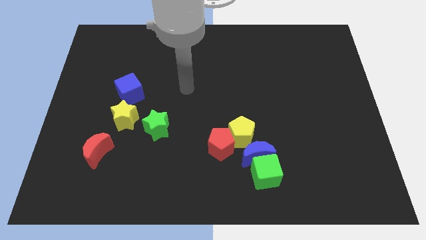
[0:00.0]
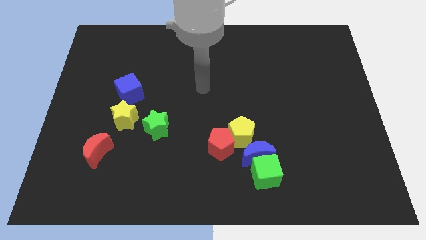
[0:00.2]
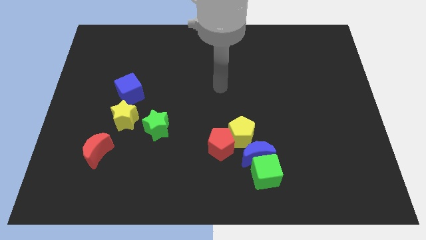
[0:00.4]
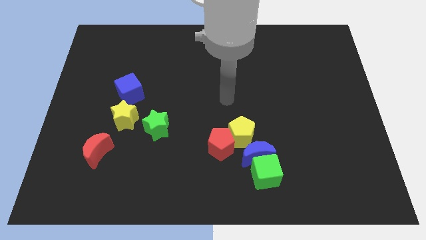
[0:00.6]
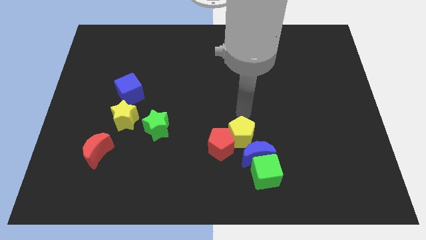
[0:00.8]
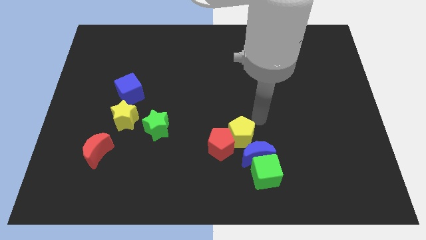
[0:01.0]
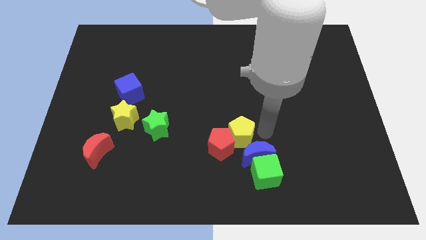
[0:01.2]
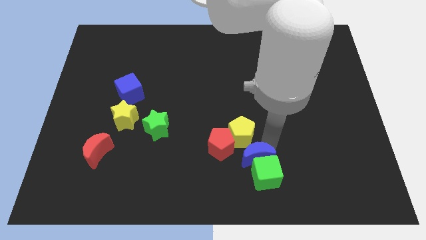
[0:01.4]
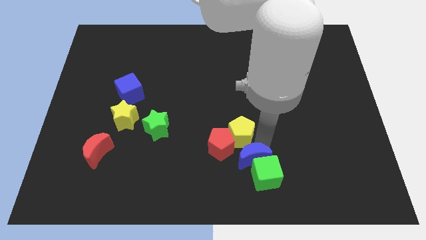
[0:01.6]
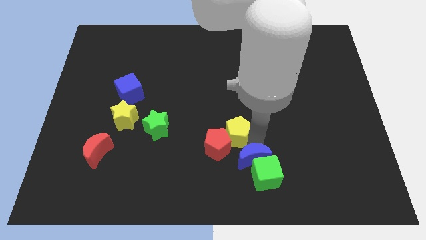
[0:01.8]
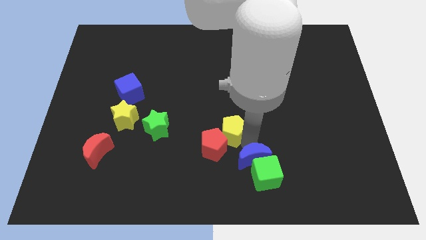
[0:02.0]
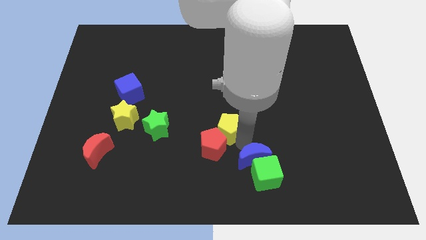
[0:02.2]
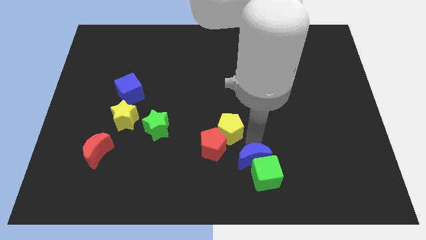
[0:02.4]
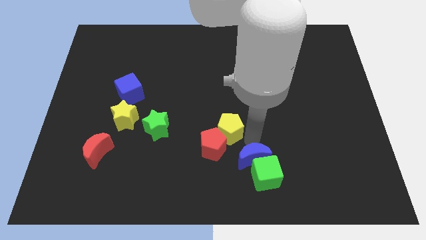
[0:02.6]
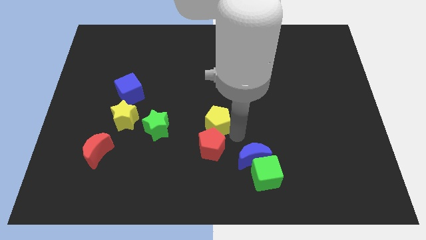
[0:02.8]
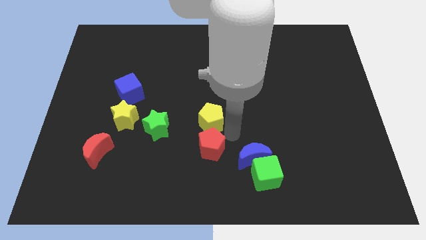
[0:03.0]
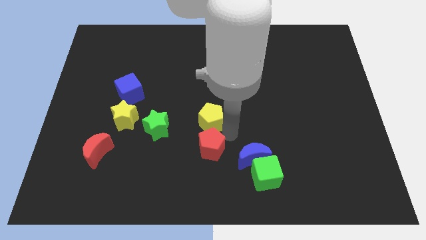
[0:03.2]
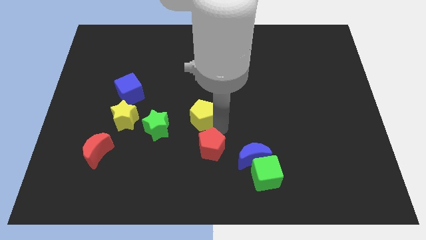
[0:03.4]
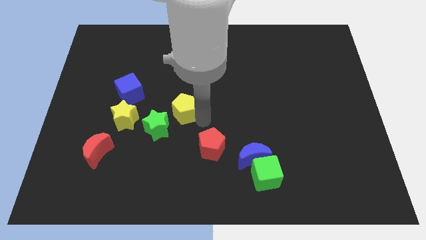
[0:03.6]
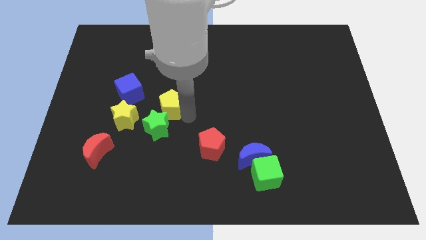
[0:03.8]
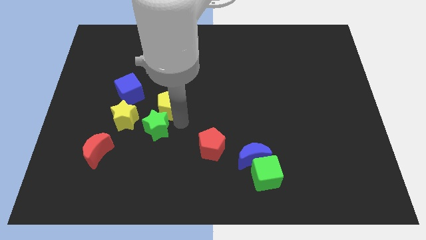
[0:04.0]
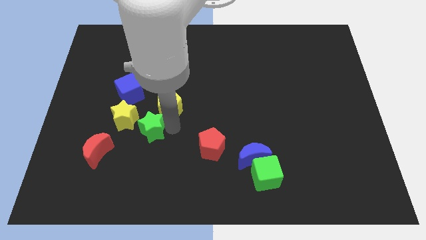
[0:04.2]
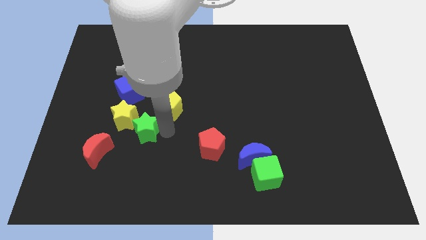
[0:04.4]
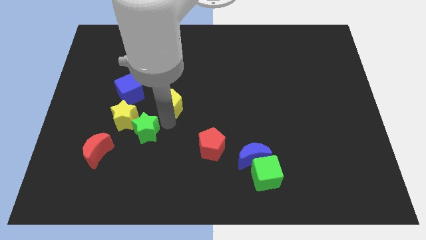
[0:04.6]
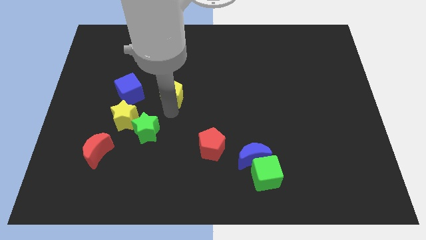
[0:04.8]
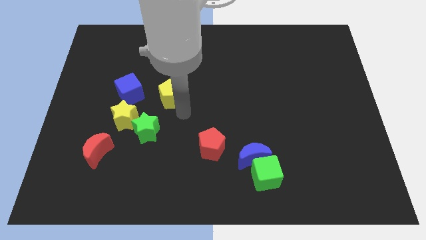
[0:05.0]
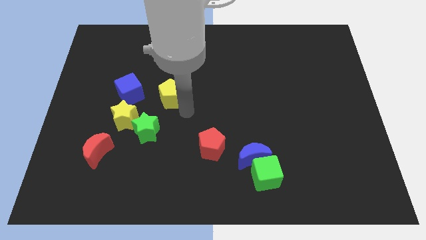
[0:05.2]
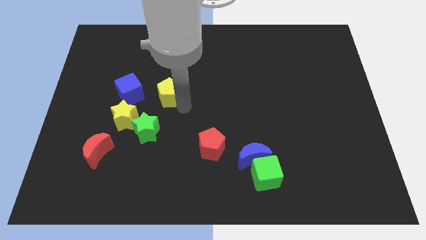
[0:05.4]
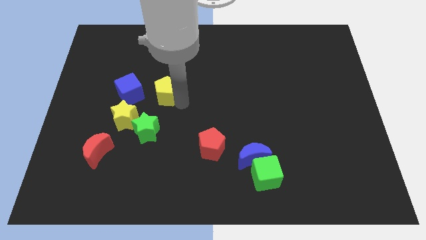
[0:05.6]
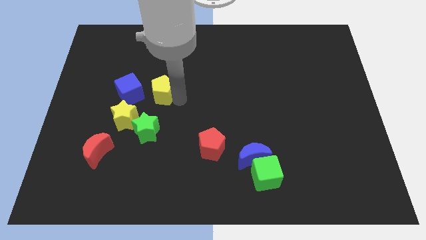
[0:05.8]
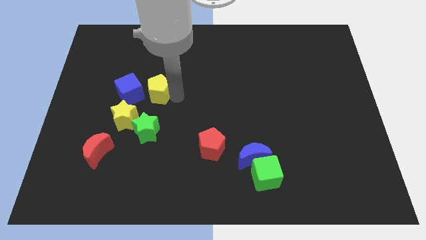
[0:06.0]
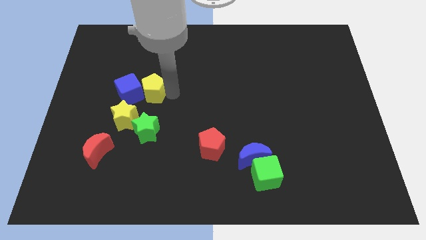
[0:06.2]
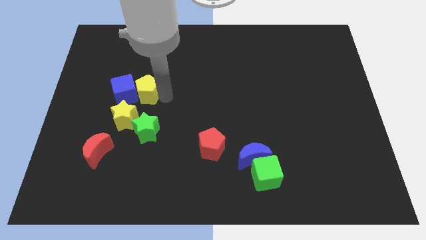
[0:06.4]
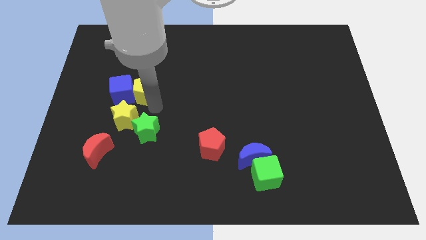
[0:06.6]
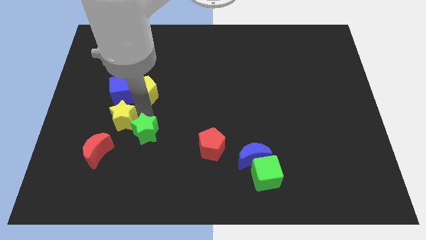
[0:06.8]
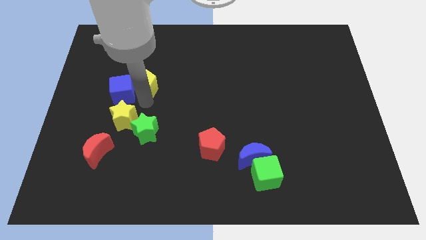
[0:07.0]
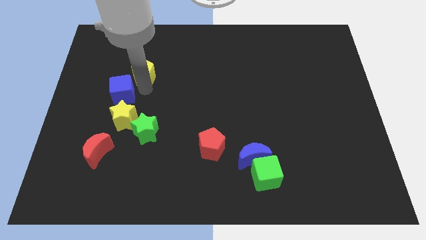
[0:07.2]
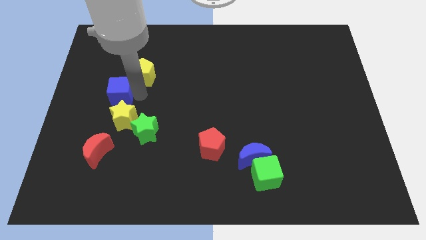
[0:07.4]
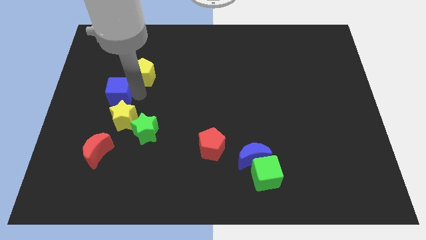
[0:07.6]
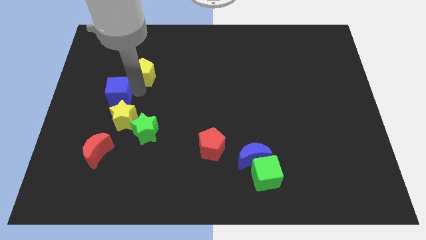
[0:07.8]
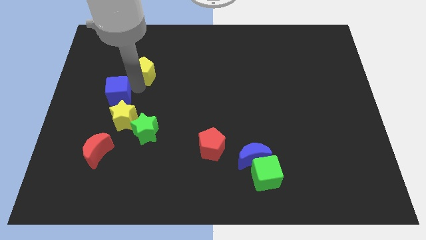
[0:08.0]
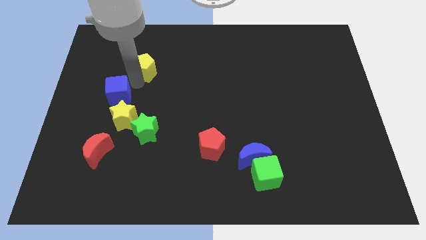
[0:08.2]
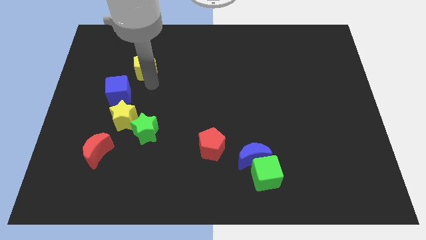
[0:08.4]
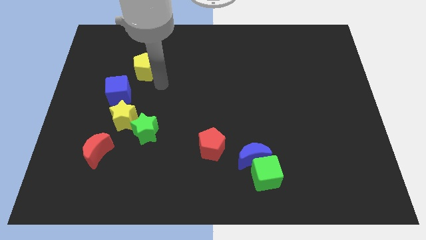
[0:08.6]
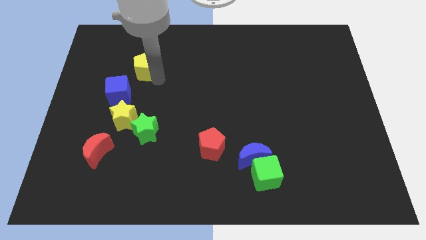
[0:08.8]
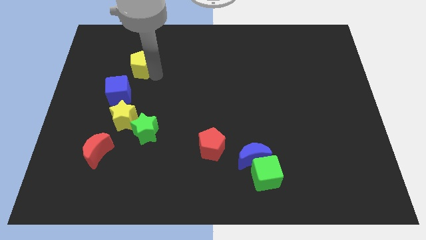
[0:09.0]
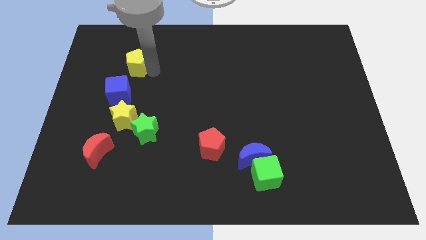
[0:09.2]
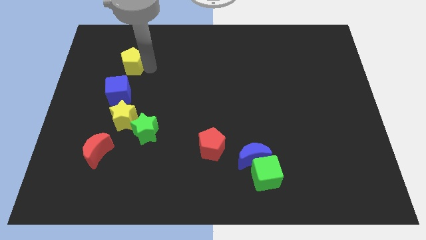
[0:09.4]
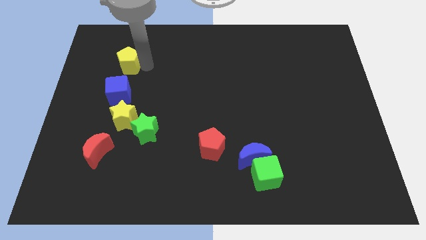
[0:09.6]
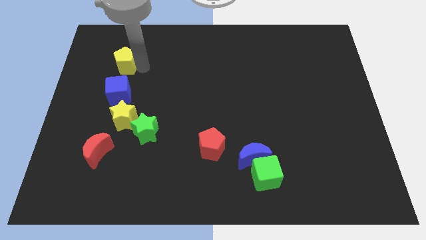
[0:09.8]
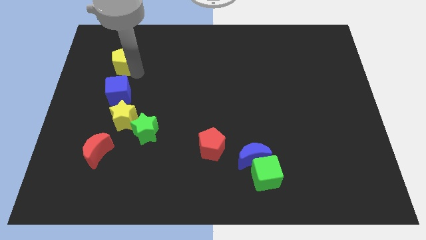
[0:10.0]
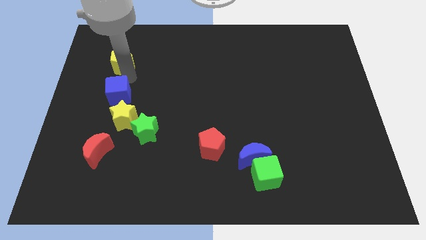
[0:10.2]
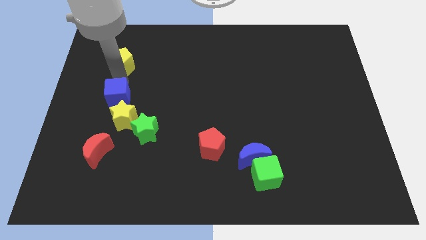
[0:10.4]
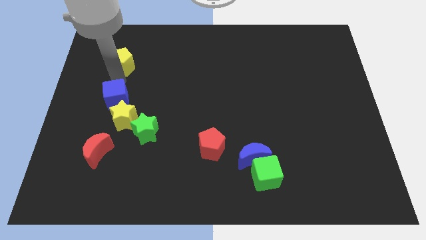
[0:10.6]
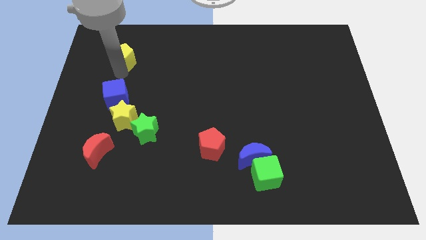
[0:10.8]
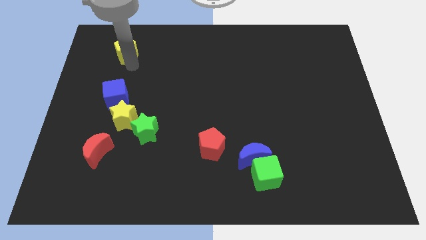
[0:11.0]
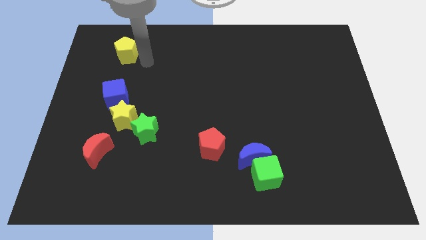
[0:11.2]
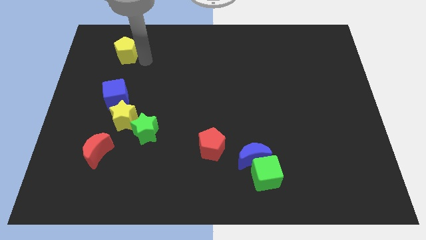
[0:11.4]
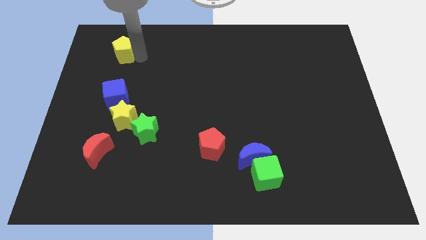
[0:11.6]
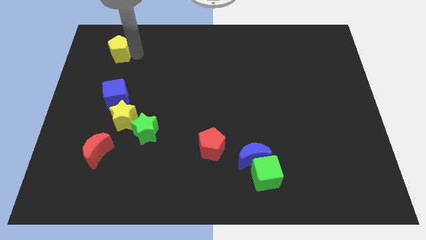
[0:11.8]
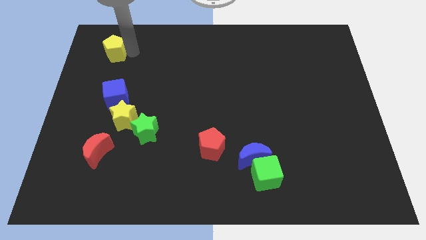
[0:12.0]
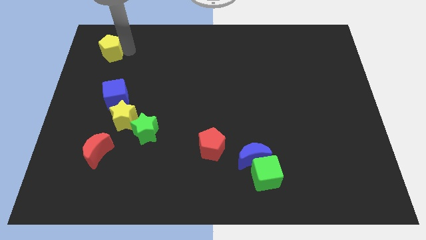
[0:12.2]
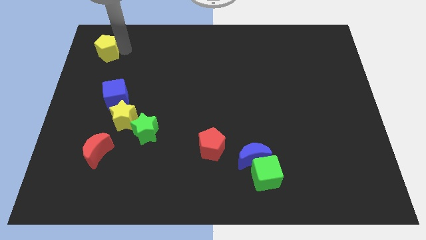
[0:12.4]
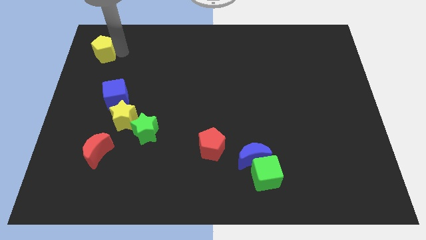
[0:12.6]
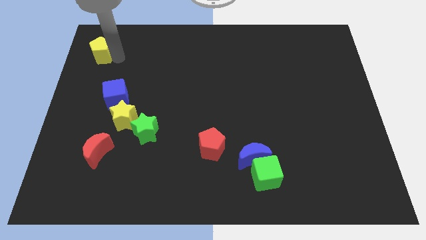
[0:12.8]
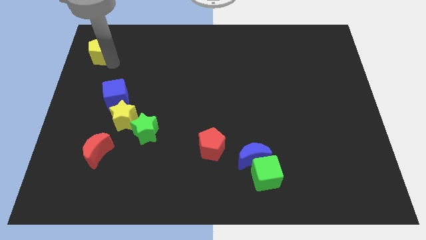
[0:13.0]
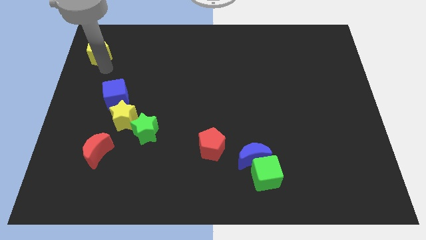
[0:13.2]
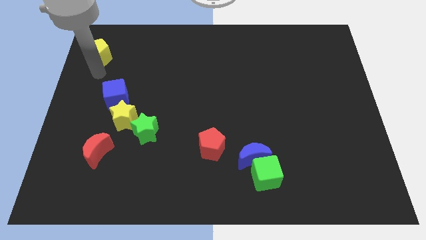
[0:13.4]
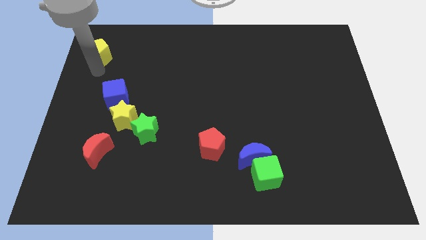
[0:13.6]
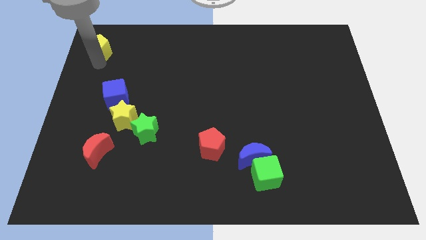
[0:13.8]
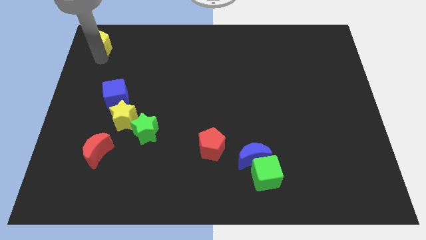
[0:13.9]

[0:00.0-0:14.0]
slide the yellow pentagon to the top left

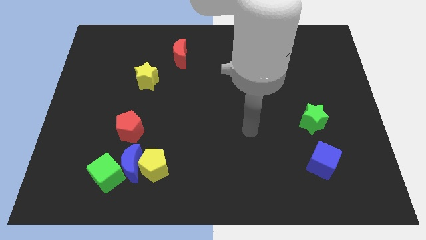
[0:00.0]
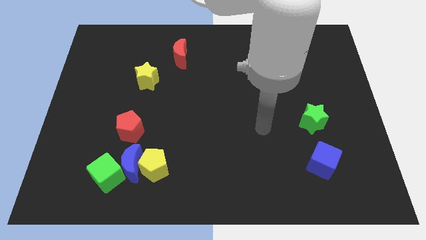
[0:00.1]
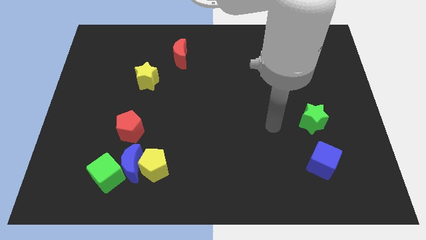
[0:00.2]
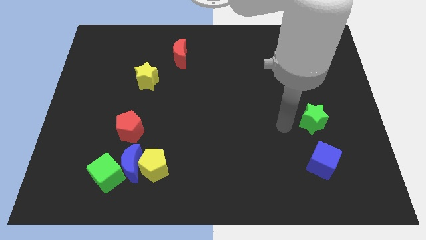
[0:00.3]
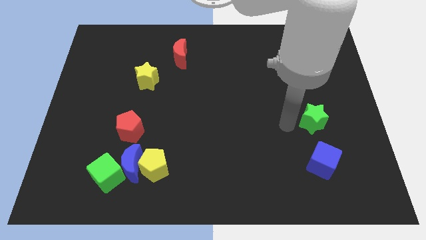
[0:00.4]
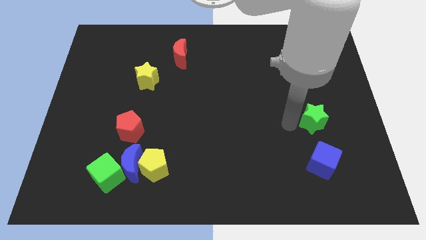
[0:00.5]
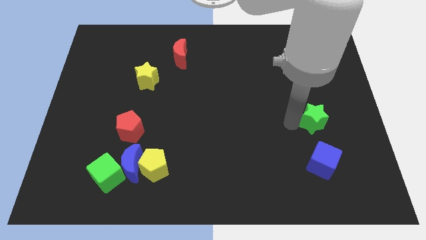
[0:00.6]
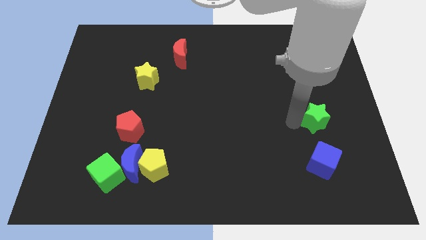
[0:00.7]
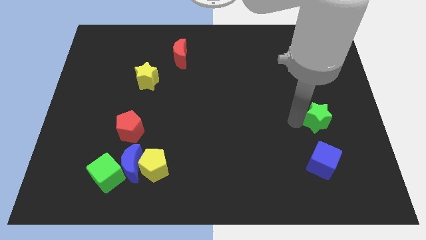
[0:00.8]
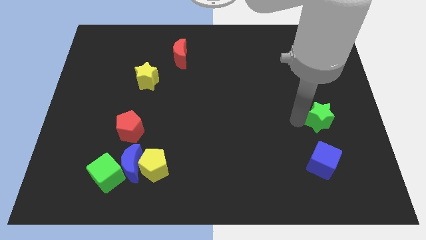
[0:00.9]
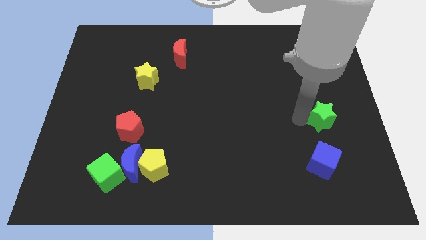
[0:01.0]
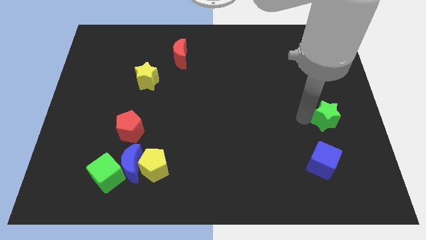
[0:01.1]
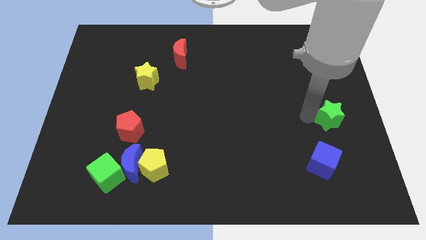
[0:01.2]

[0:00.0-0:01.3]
push the green star to the right side

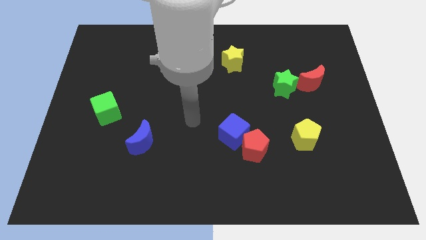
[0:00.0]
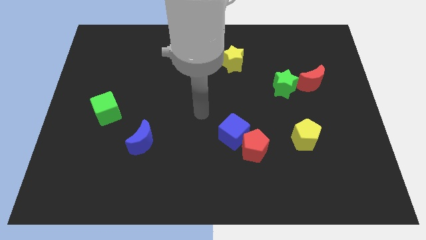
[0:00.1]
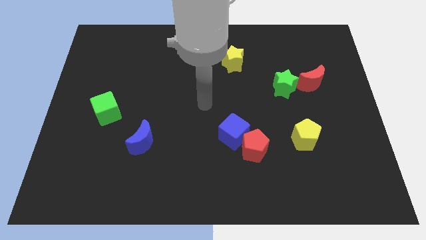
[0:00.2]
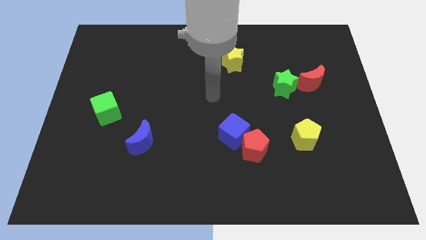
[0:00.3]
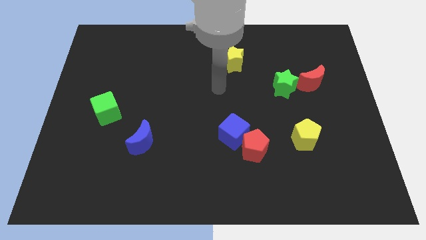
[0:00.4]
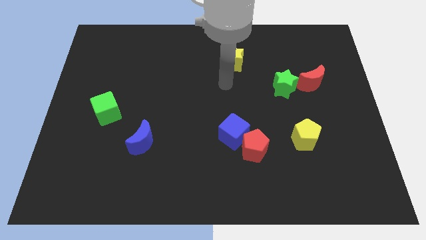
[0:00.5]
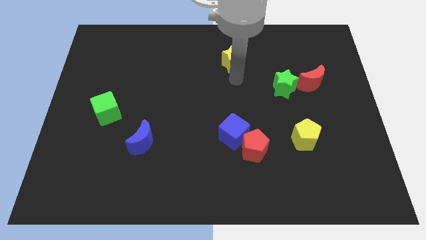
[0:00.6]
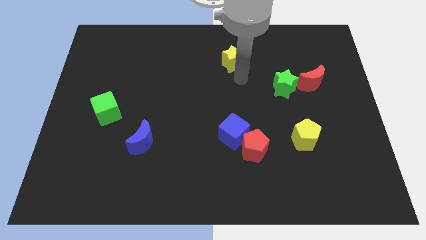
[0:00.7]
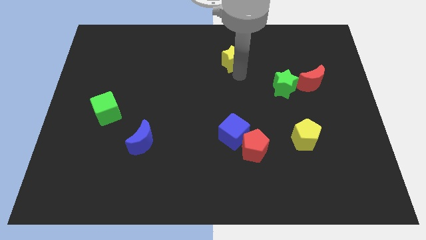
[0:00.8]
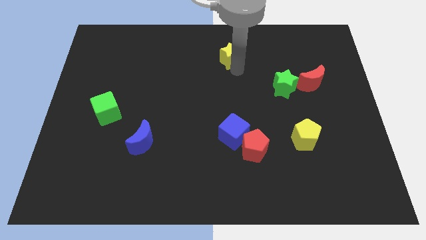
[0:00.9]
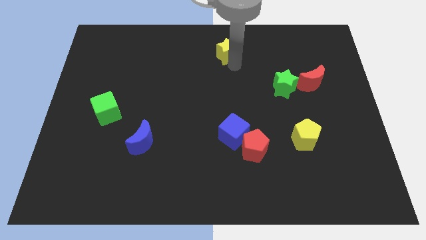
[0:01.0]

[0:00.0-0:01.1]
slide the yellow star to the towards your base
